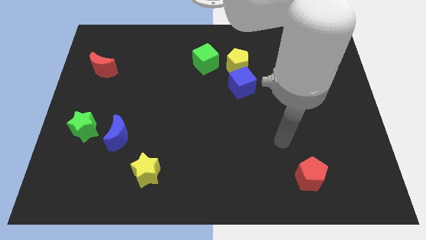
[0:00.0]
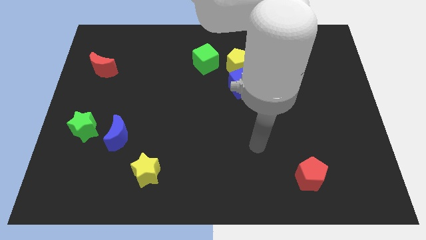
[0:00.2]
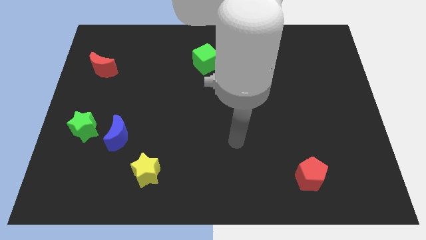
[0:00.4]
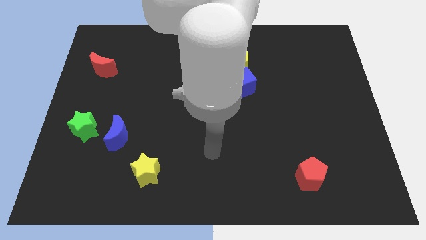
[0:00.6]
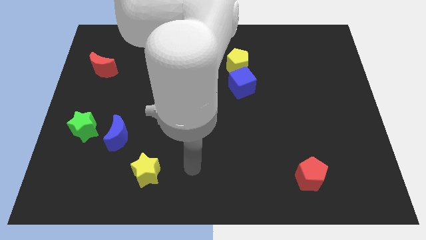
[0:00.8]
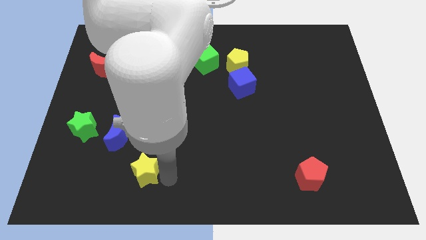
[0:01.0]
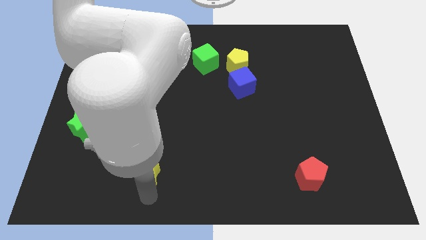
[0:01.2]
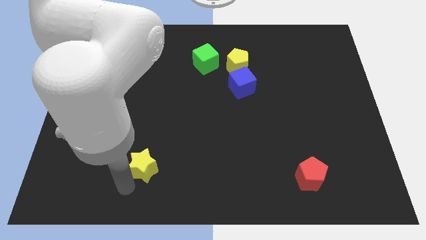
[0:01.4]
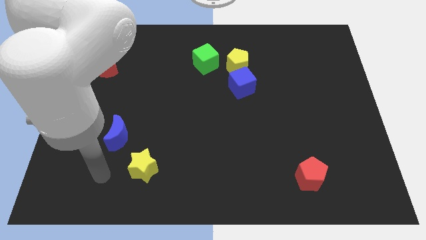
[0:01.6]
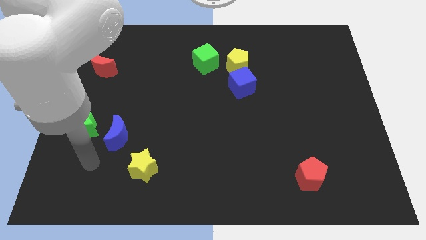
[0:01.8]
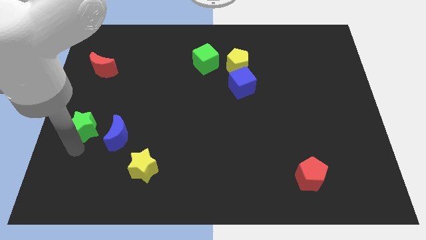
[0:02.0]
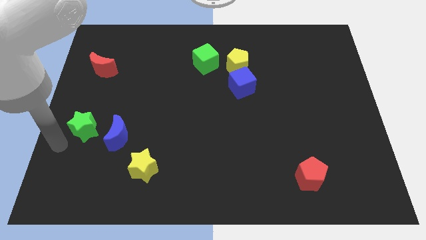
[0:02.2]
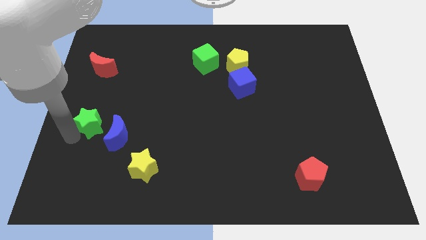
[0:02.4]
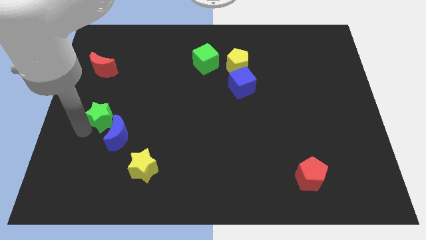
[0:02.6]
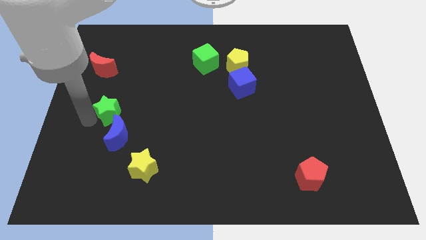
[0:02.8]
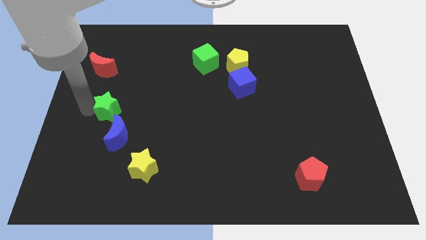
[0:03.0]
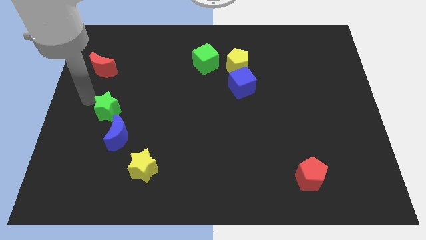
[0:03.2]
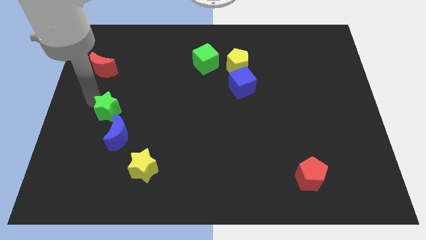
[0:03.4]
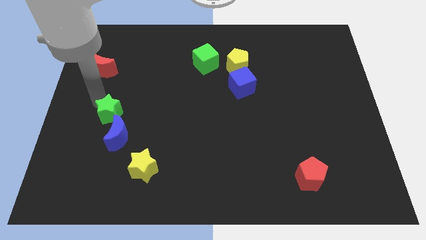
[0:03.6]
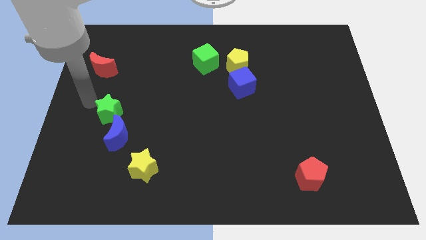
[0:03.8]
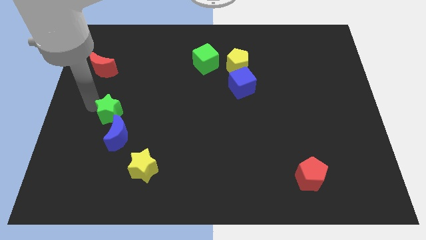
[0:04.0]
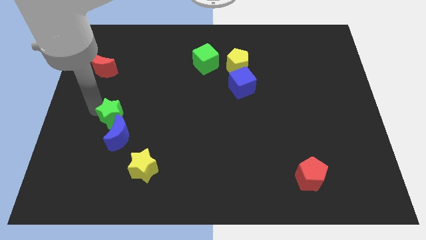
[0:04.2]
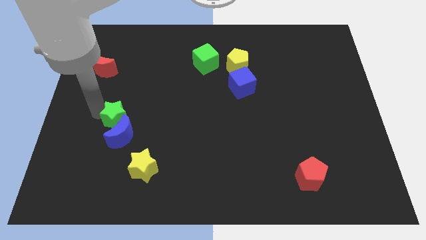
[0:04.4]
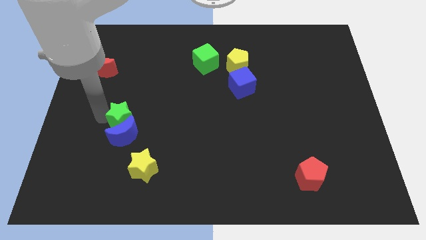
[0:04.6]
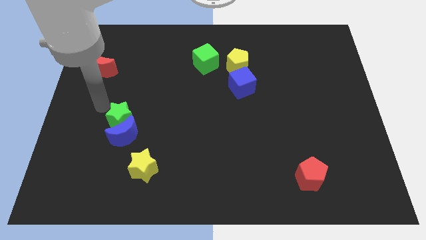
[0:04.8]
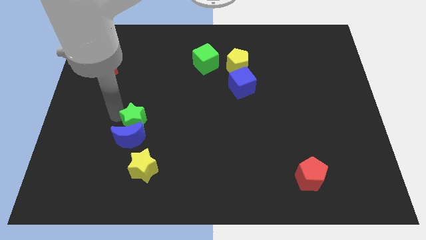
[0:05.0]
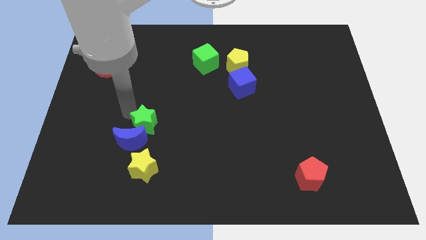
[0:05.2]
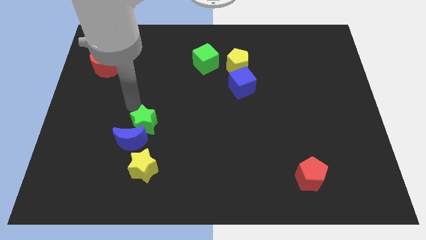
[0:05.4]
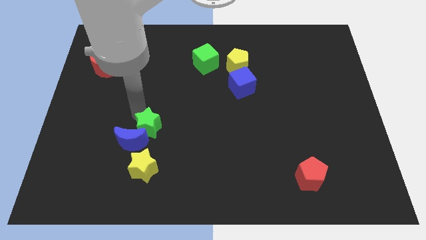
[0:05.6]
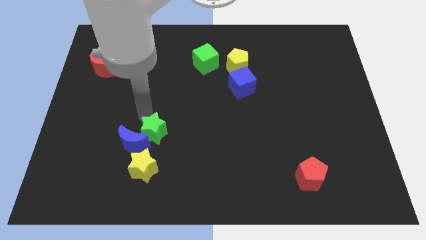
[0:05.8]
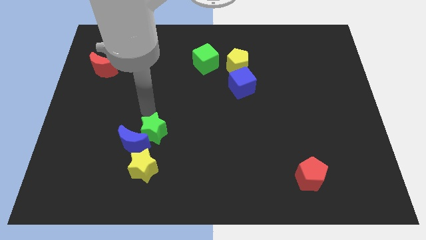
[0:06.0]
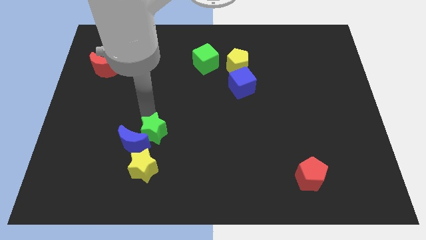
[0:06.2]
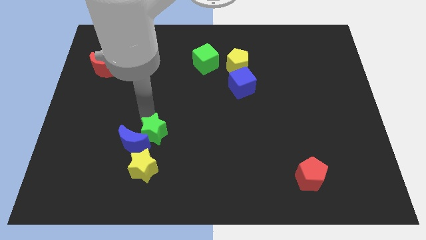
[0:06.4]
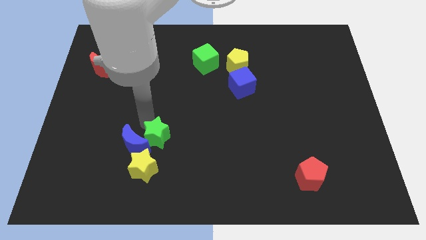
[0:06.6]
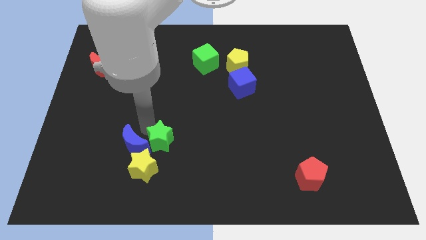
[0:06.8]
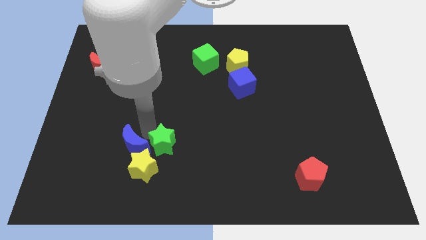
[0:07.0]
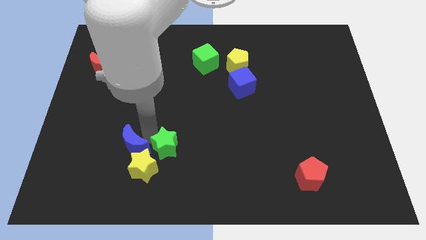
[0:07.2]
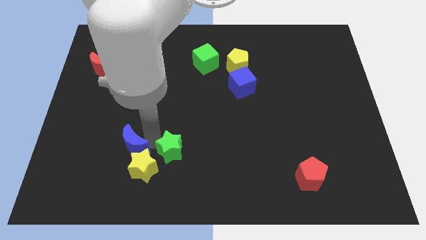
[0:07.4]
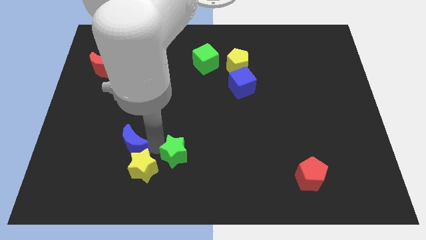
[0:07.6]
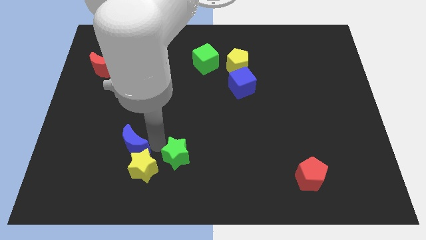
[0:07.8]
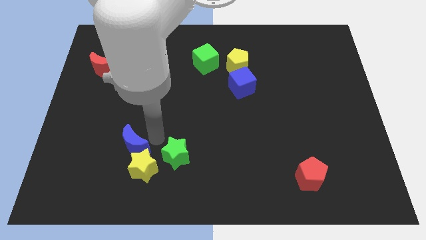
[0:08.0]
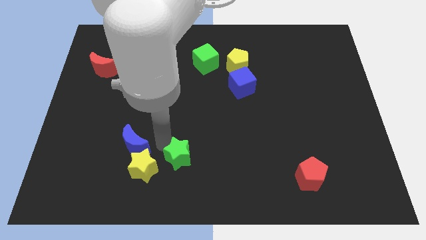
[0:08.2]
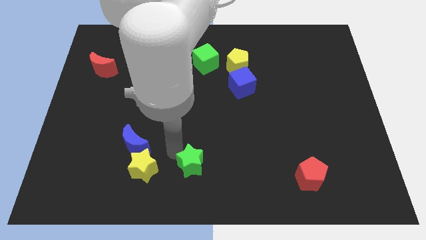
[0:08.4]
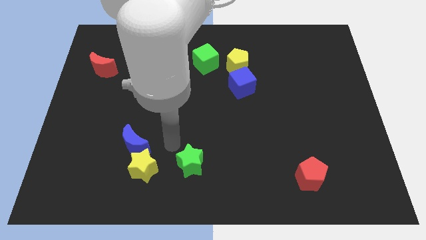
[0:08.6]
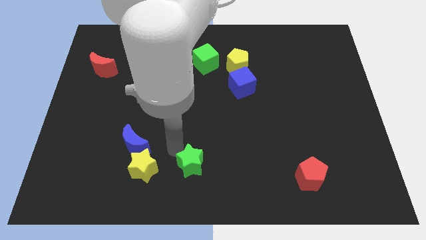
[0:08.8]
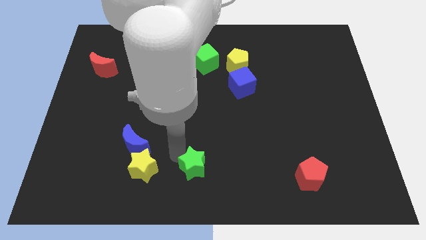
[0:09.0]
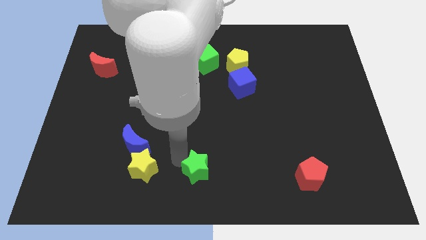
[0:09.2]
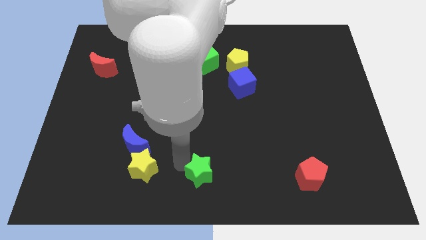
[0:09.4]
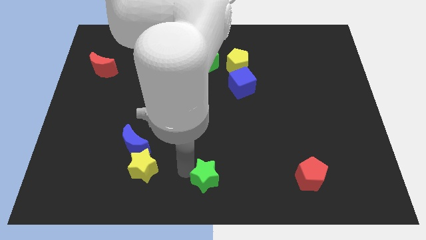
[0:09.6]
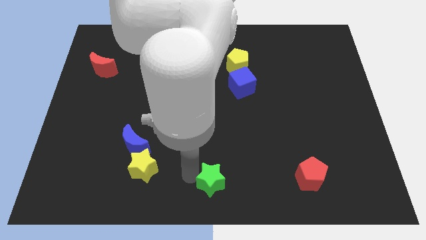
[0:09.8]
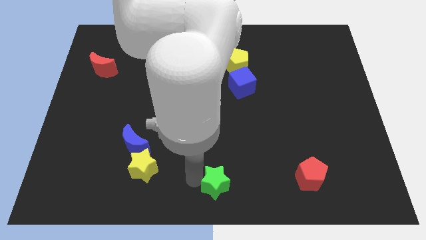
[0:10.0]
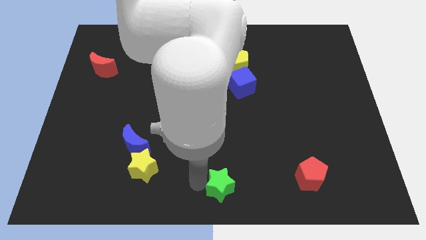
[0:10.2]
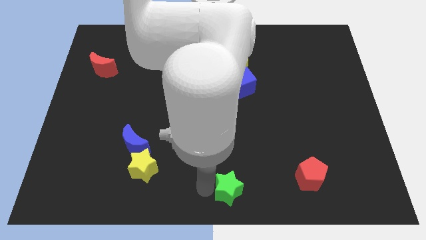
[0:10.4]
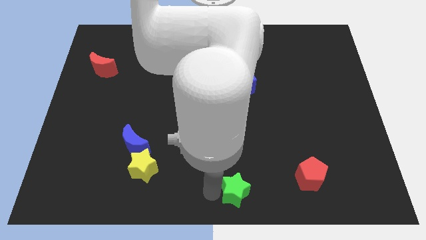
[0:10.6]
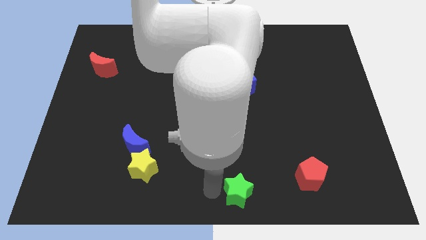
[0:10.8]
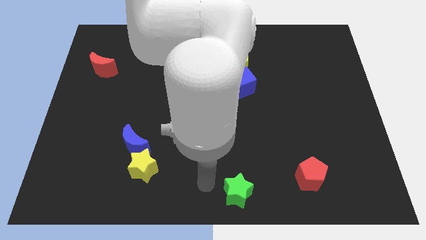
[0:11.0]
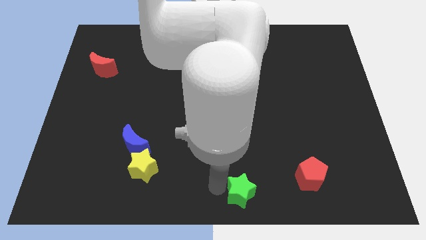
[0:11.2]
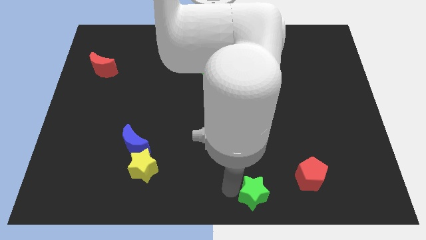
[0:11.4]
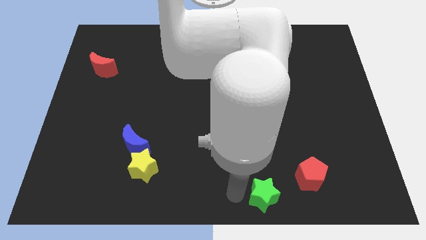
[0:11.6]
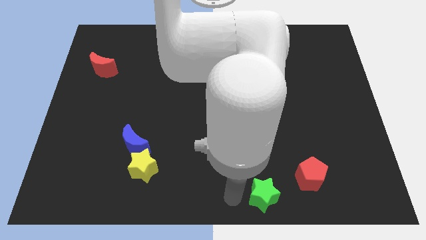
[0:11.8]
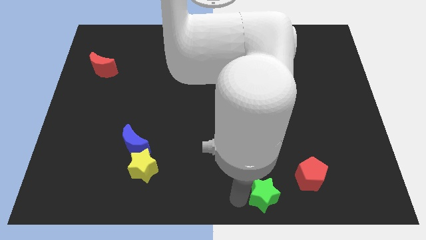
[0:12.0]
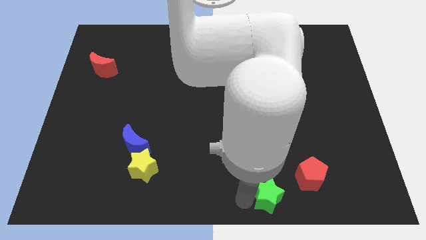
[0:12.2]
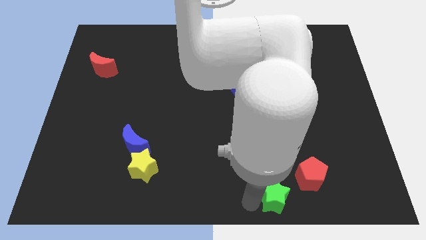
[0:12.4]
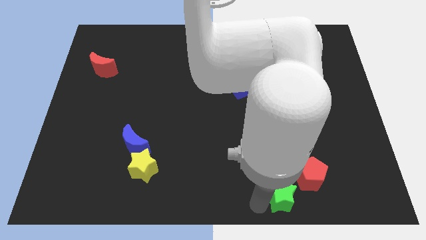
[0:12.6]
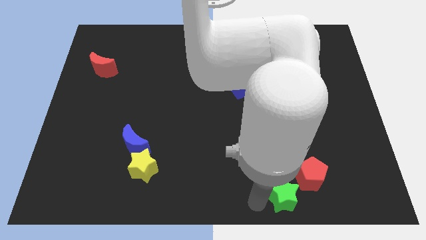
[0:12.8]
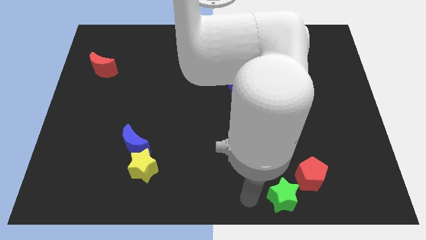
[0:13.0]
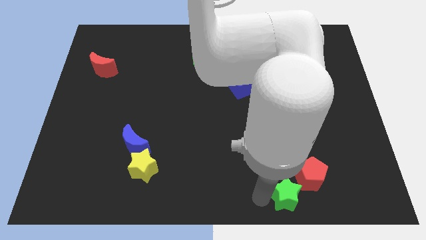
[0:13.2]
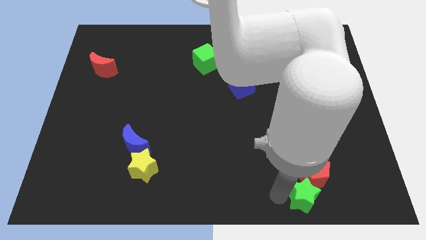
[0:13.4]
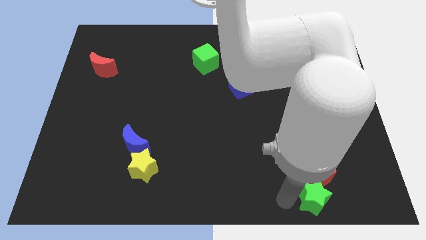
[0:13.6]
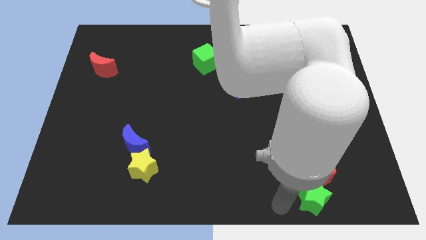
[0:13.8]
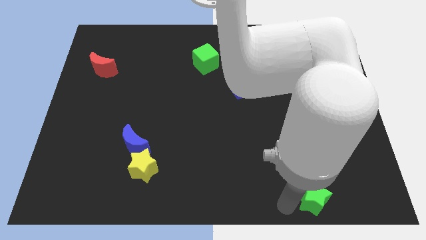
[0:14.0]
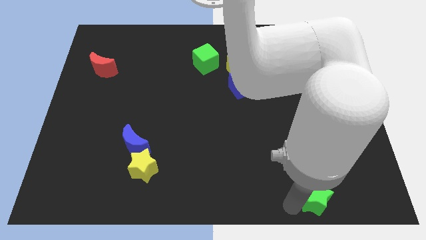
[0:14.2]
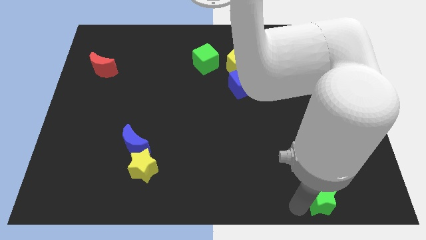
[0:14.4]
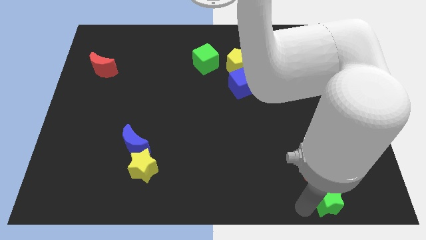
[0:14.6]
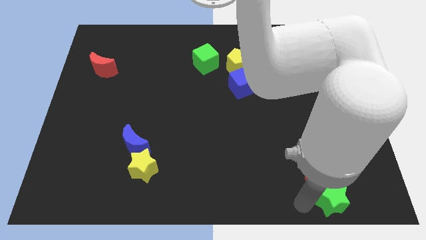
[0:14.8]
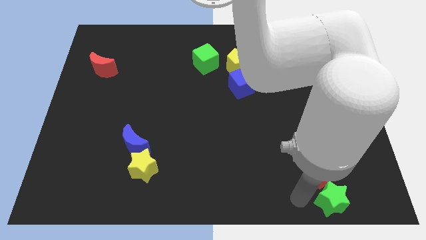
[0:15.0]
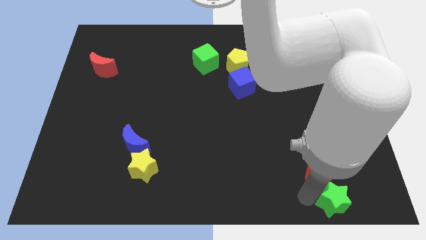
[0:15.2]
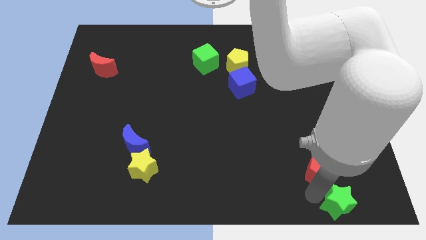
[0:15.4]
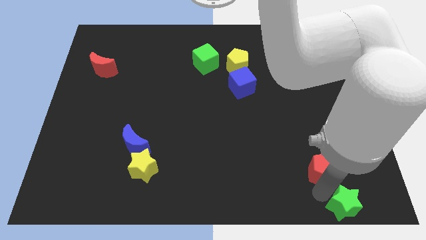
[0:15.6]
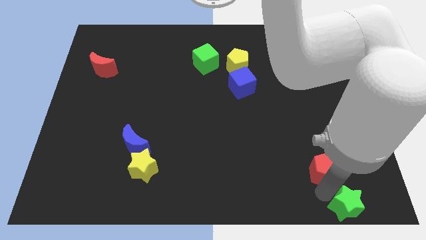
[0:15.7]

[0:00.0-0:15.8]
move the green star to the bottom right corner
